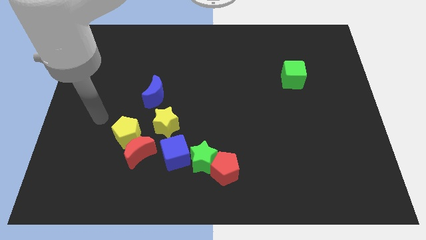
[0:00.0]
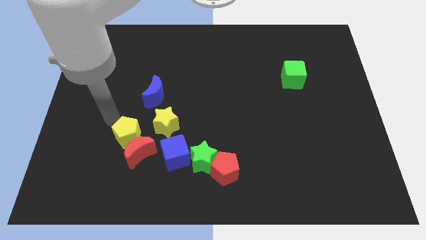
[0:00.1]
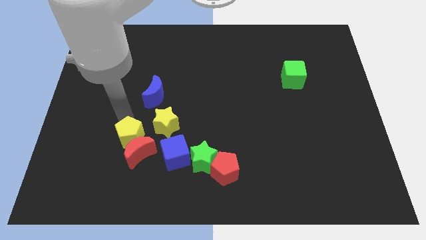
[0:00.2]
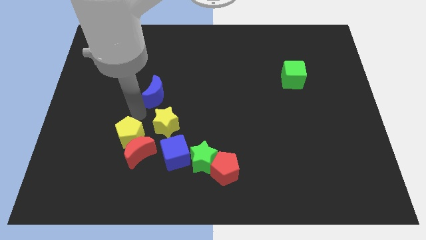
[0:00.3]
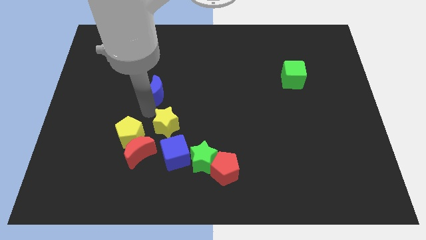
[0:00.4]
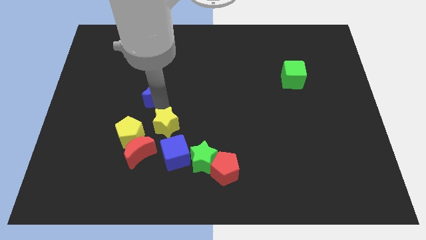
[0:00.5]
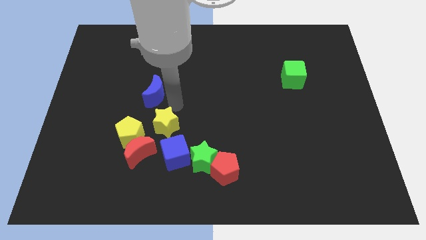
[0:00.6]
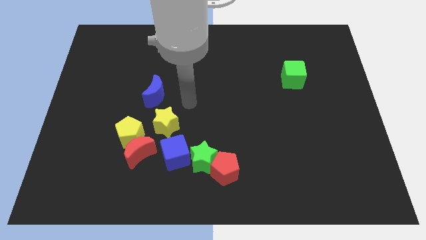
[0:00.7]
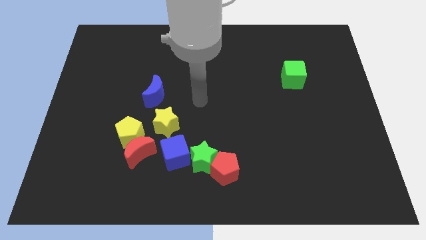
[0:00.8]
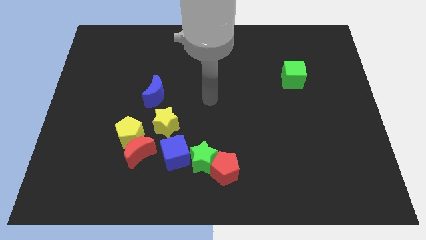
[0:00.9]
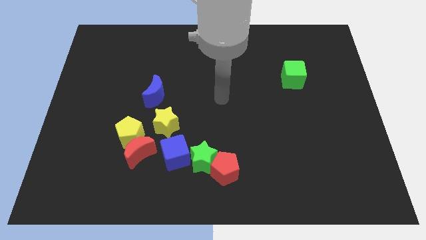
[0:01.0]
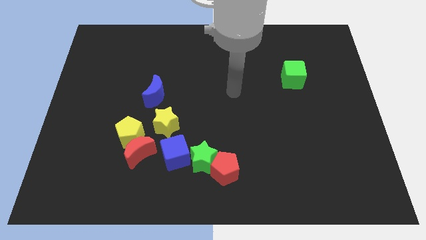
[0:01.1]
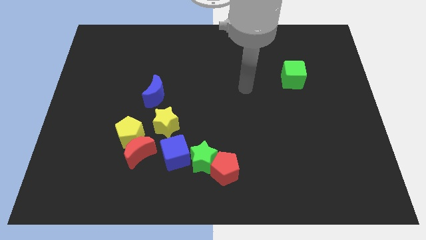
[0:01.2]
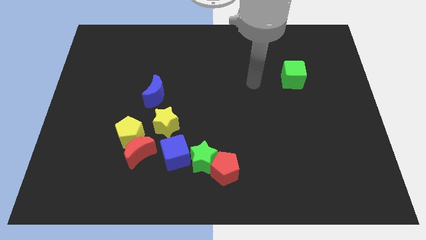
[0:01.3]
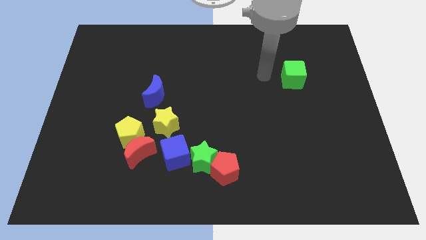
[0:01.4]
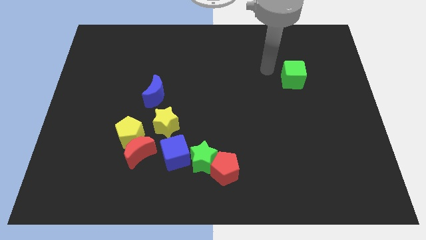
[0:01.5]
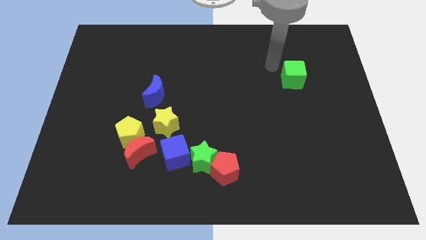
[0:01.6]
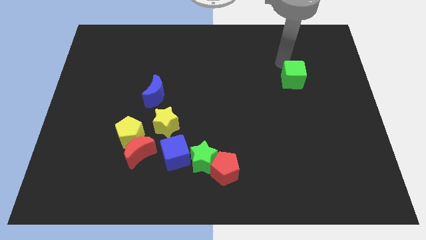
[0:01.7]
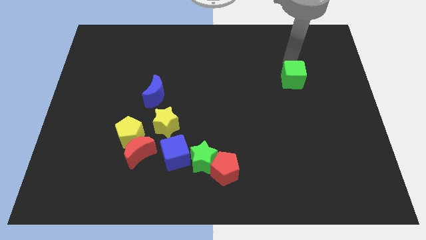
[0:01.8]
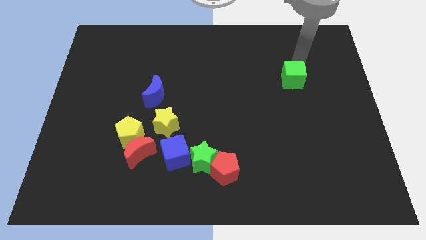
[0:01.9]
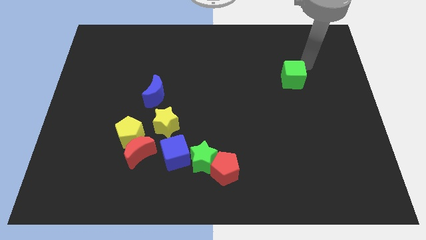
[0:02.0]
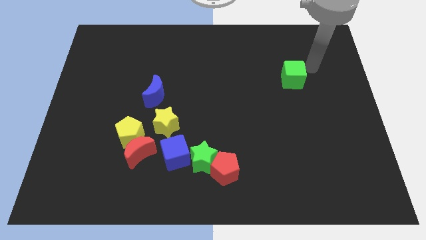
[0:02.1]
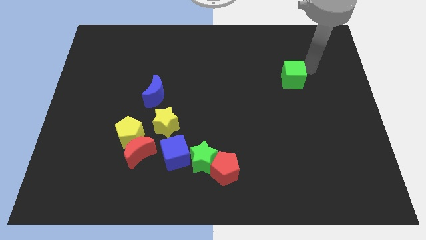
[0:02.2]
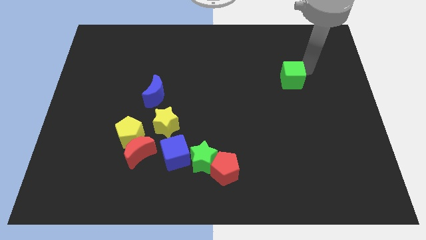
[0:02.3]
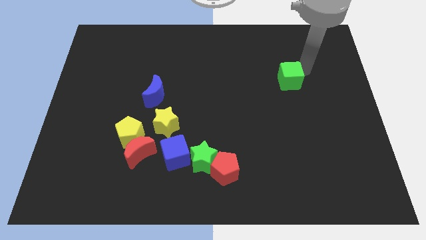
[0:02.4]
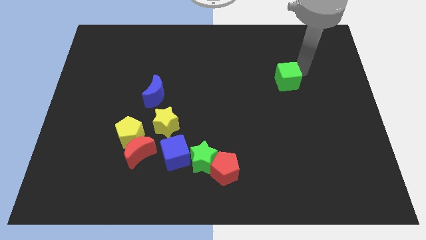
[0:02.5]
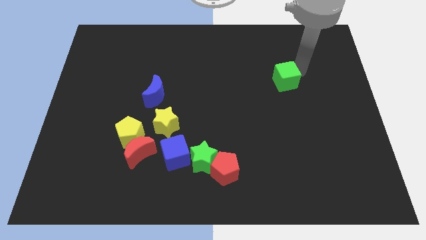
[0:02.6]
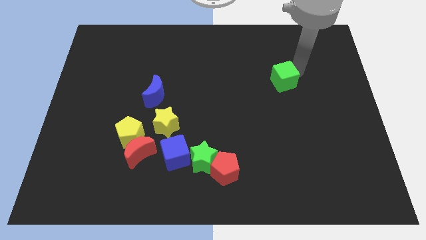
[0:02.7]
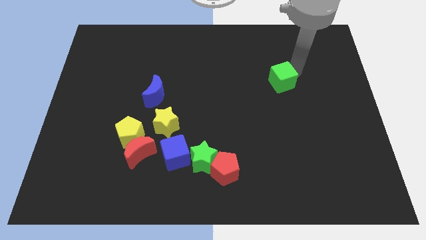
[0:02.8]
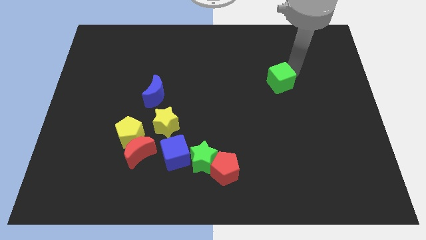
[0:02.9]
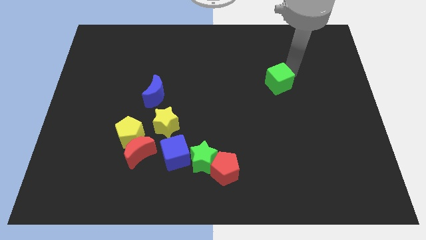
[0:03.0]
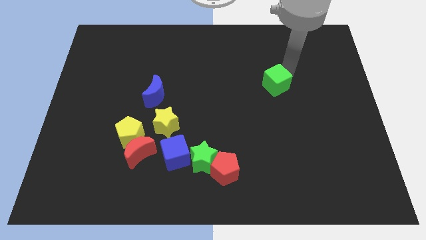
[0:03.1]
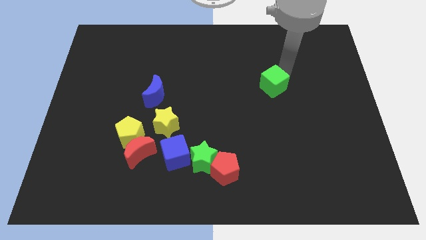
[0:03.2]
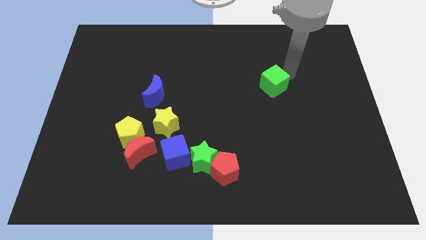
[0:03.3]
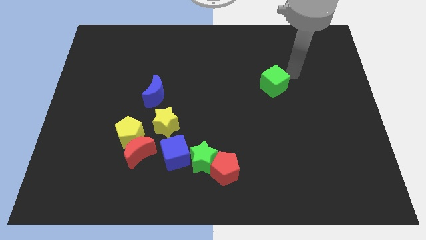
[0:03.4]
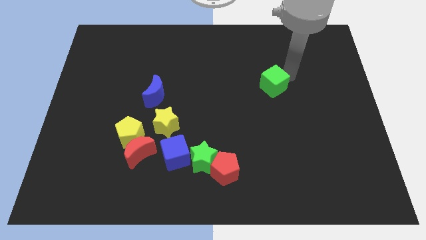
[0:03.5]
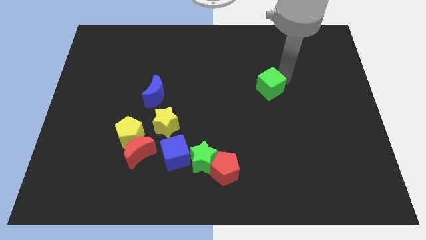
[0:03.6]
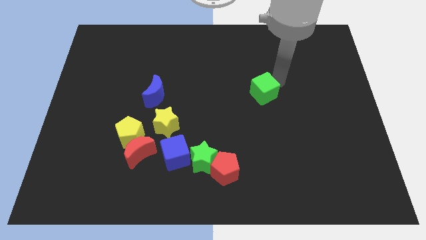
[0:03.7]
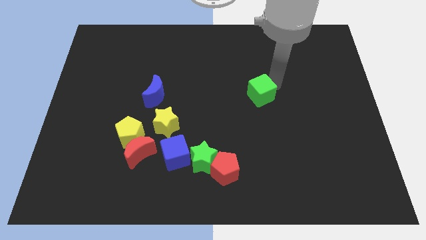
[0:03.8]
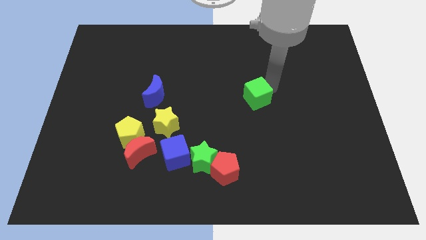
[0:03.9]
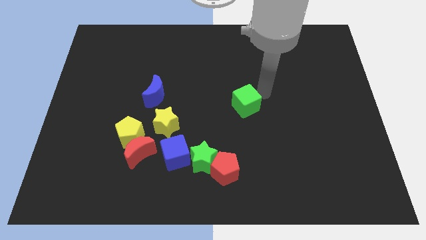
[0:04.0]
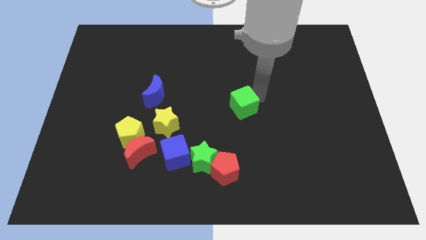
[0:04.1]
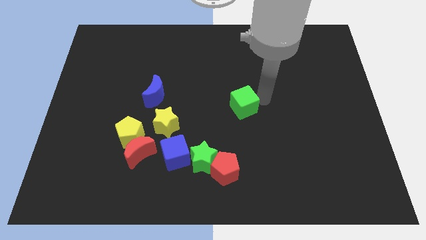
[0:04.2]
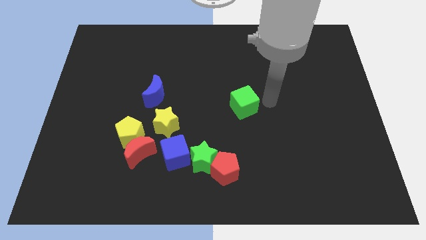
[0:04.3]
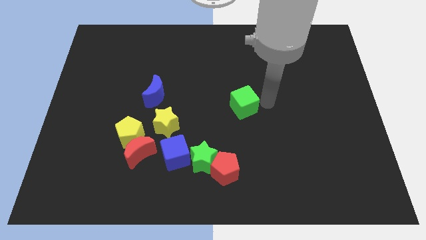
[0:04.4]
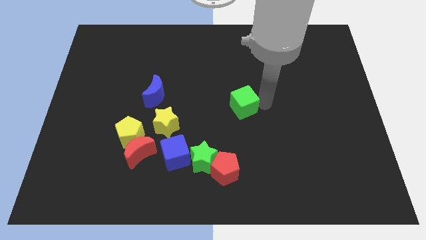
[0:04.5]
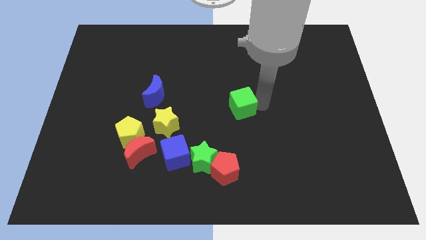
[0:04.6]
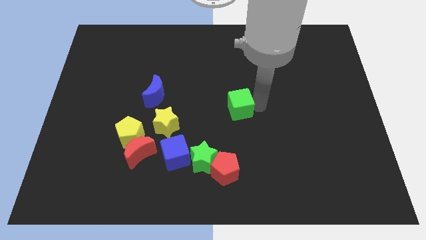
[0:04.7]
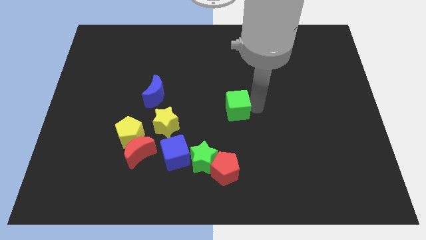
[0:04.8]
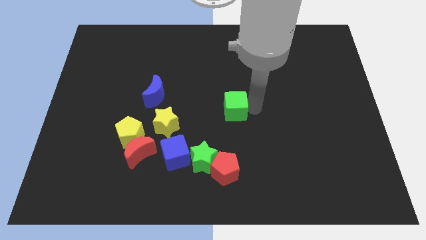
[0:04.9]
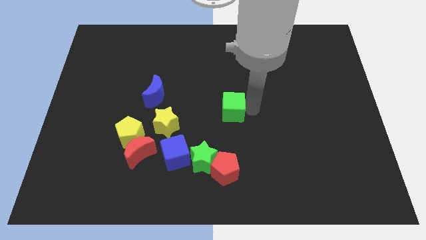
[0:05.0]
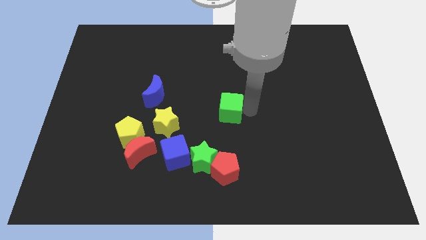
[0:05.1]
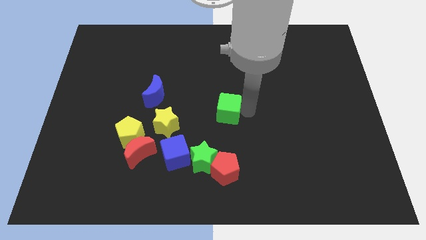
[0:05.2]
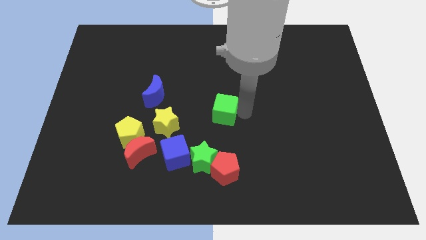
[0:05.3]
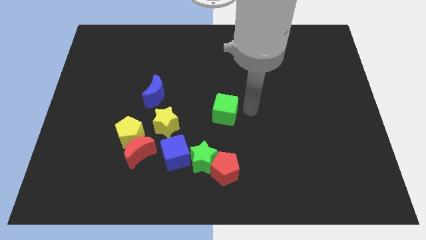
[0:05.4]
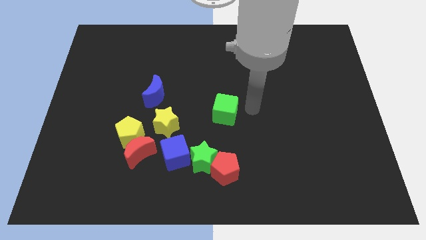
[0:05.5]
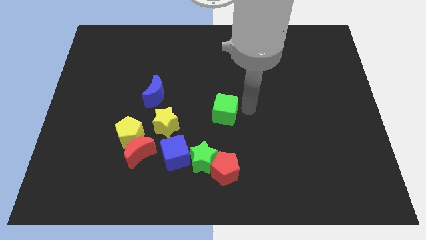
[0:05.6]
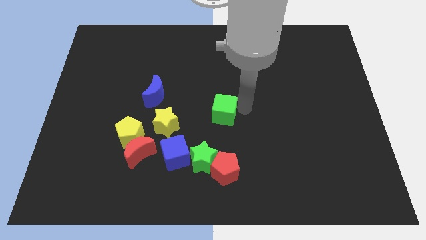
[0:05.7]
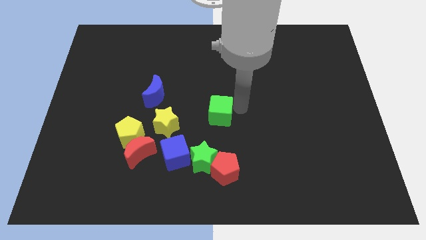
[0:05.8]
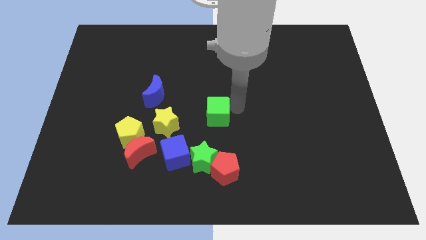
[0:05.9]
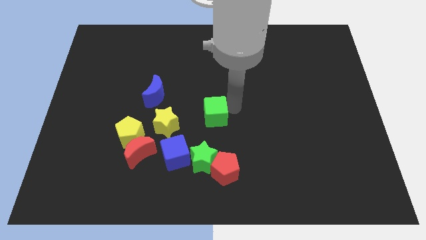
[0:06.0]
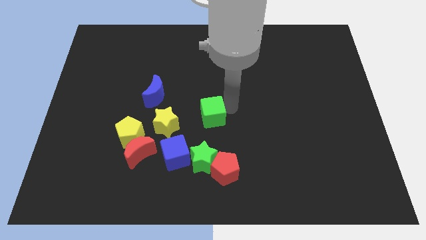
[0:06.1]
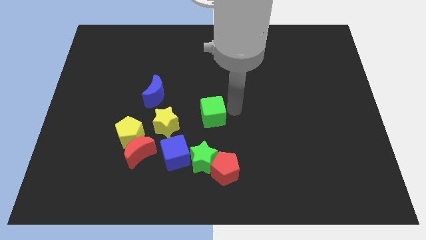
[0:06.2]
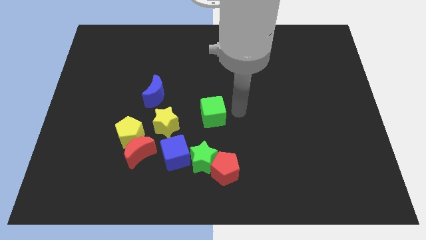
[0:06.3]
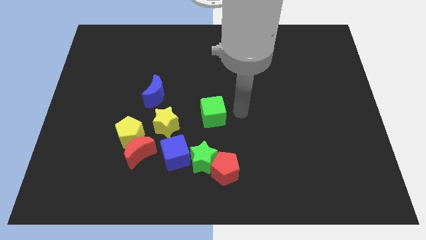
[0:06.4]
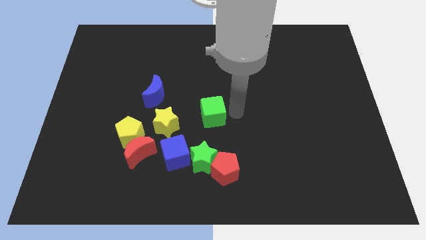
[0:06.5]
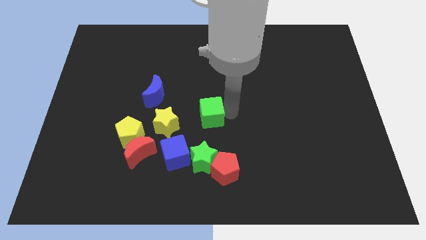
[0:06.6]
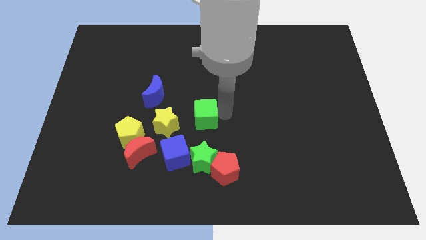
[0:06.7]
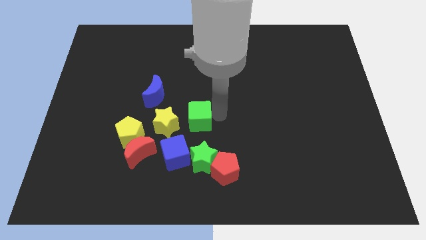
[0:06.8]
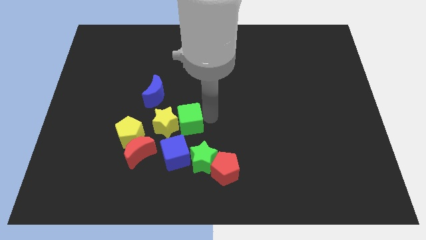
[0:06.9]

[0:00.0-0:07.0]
put the green cube to the yellow star
